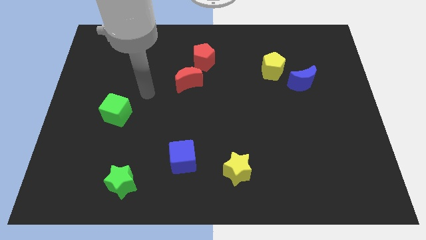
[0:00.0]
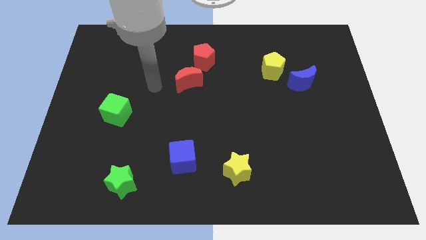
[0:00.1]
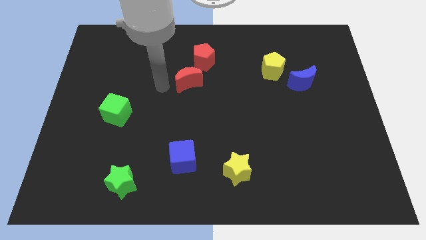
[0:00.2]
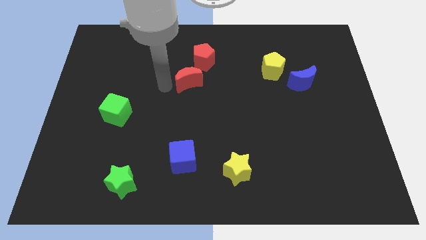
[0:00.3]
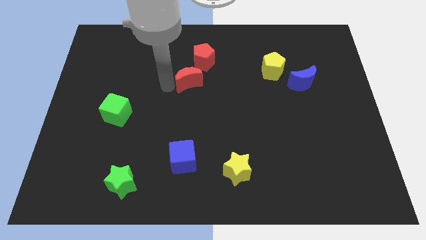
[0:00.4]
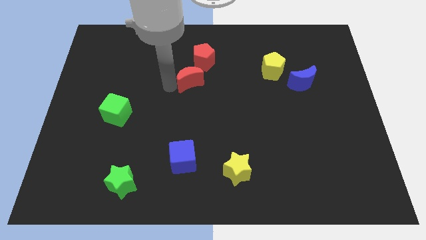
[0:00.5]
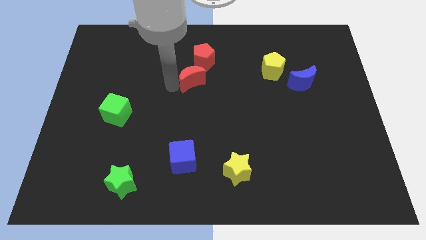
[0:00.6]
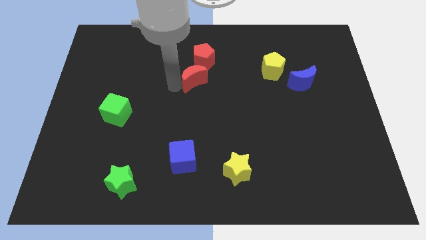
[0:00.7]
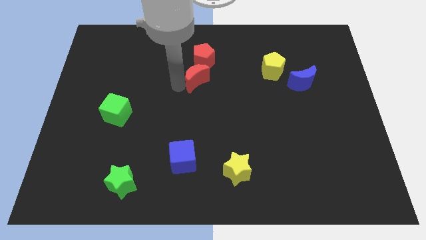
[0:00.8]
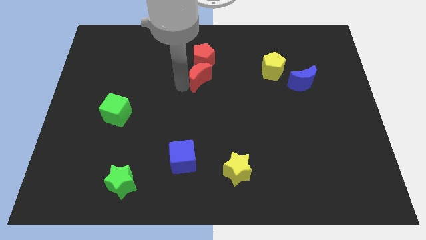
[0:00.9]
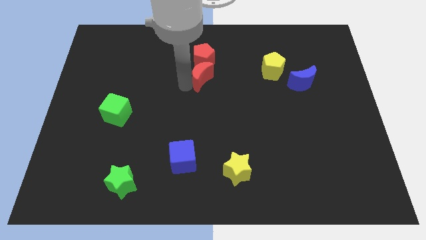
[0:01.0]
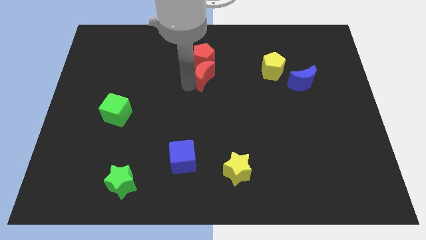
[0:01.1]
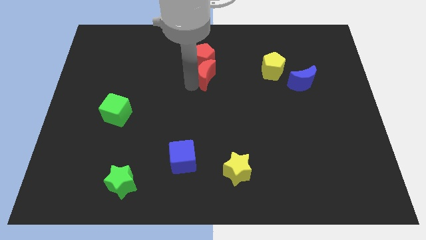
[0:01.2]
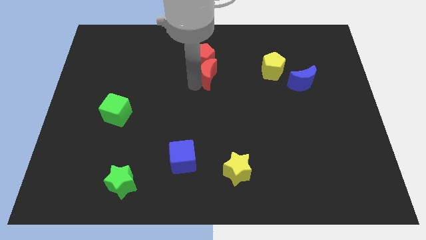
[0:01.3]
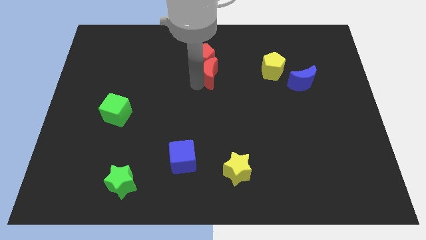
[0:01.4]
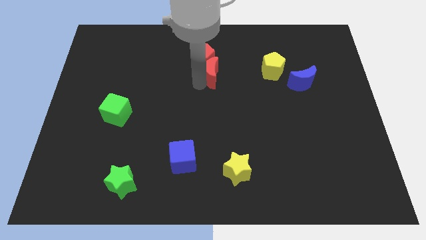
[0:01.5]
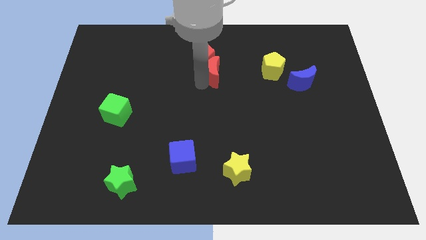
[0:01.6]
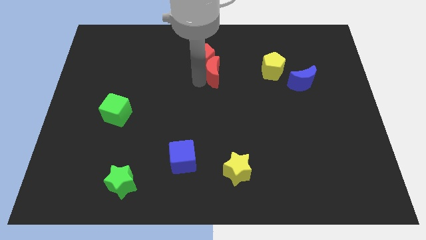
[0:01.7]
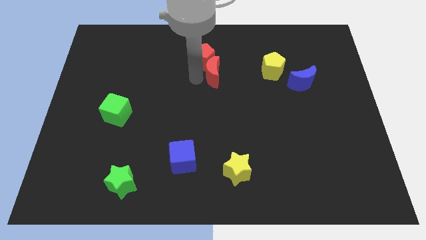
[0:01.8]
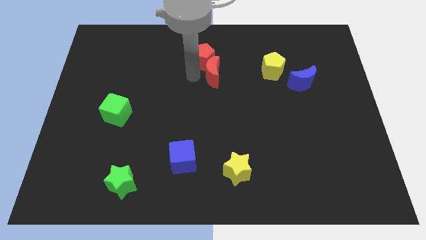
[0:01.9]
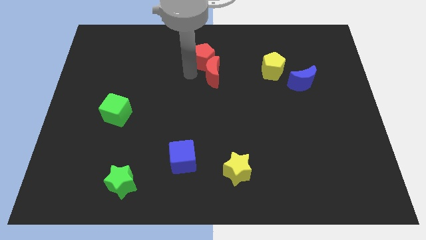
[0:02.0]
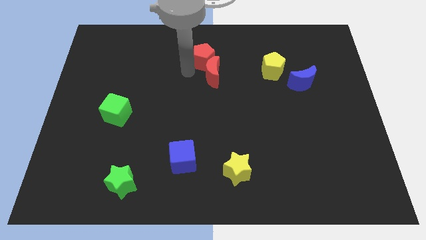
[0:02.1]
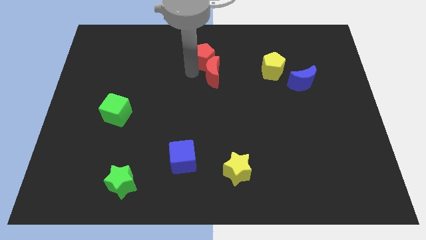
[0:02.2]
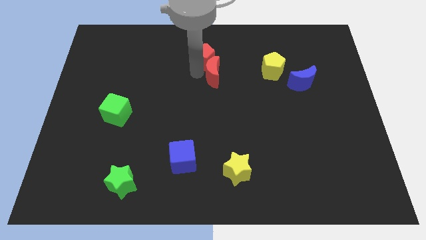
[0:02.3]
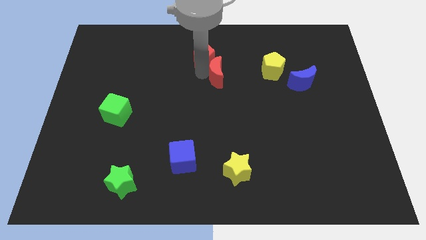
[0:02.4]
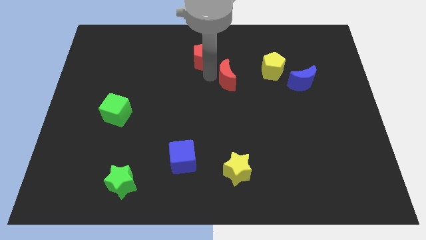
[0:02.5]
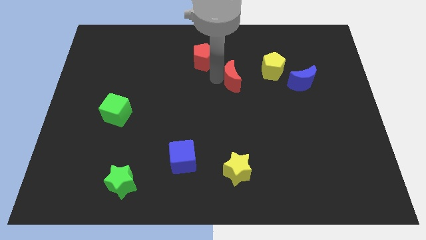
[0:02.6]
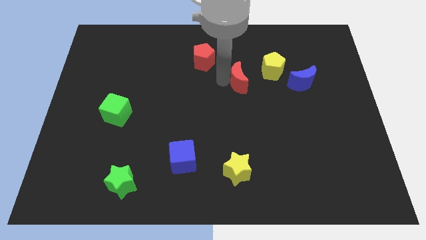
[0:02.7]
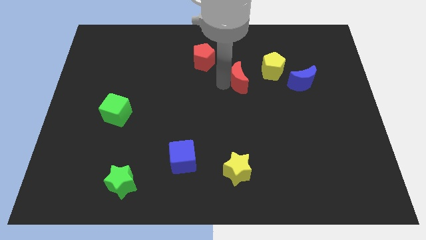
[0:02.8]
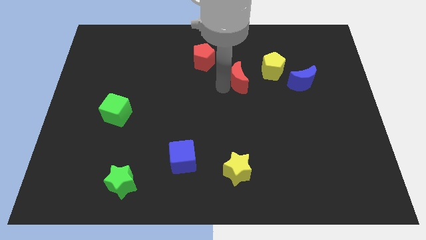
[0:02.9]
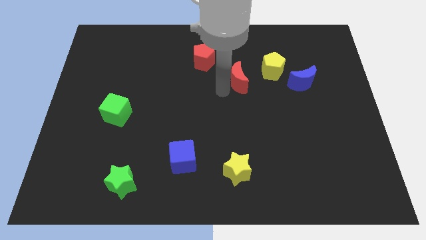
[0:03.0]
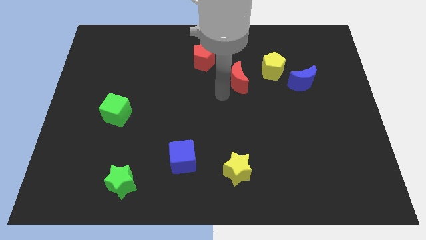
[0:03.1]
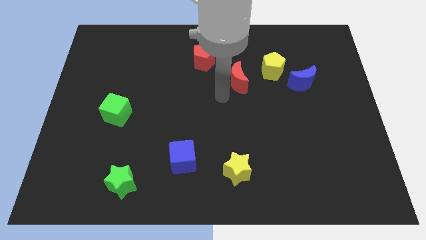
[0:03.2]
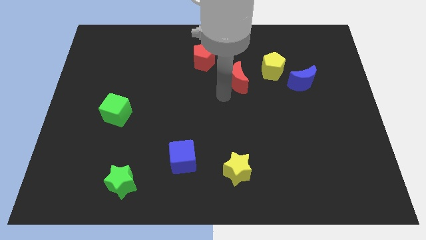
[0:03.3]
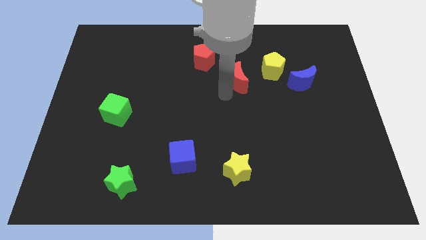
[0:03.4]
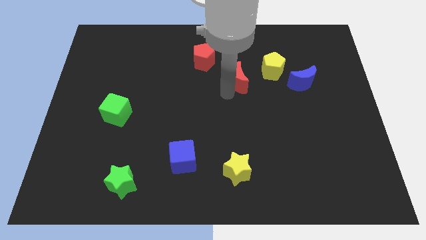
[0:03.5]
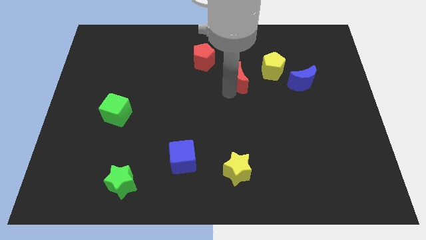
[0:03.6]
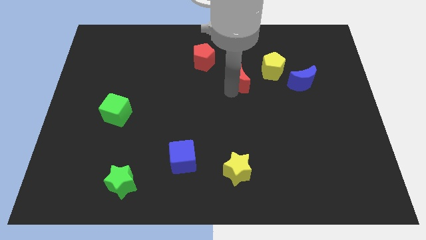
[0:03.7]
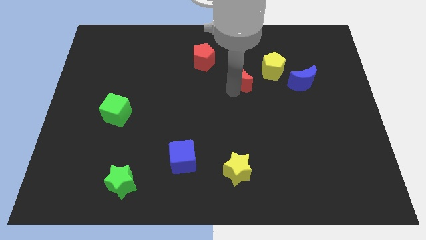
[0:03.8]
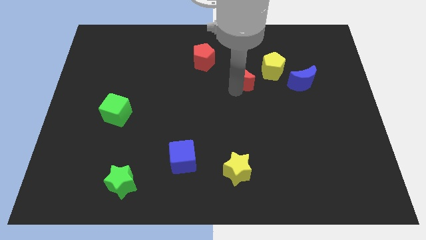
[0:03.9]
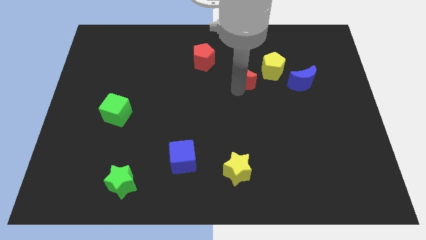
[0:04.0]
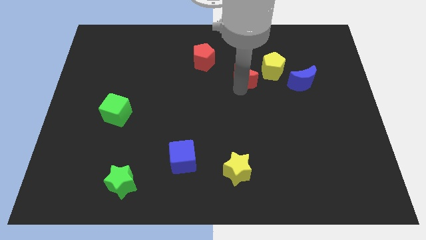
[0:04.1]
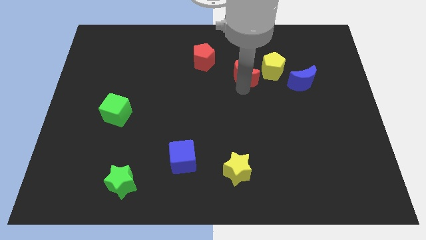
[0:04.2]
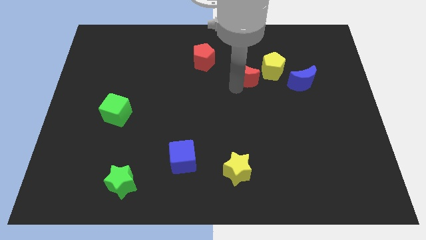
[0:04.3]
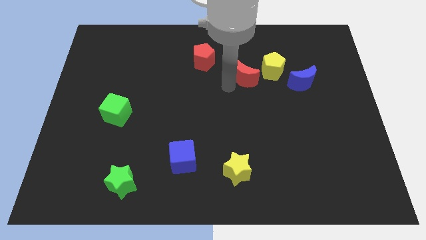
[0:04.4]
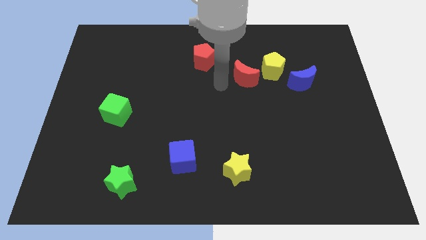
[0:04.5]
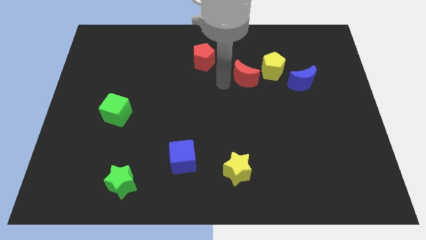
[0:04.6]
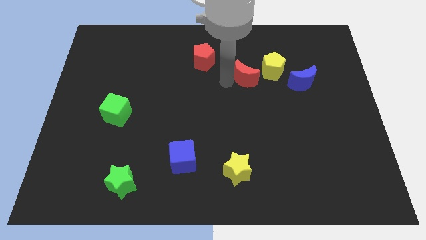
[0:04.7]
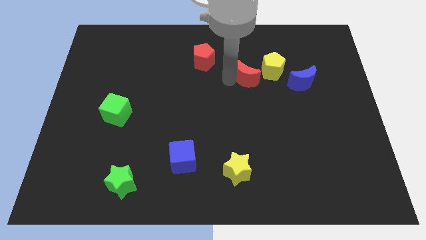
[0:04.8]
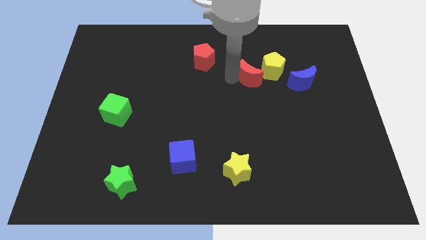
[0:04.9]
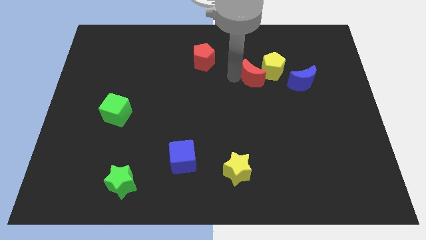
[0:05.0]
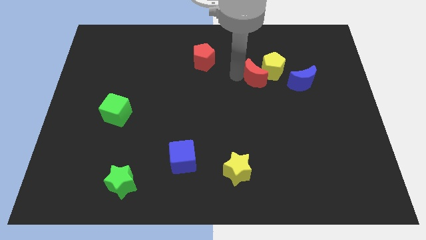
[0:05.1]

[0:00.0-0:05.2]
push the red moon to the yellow pentagon

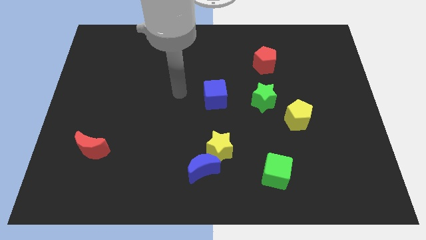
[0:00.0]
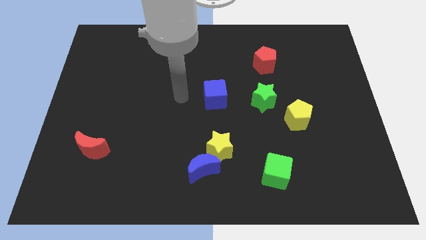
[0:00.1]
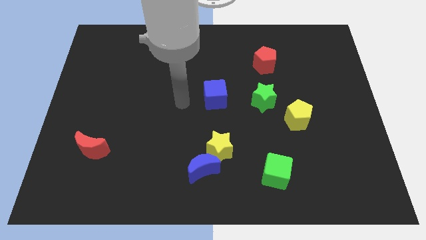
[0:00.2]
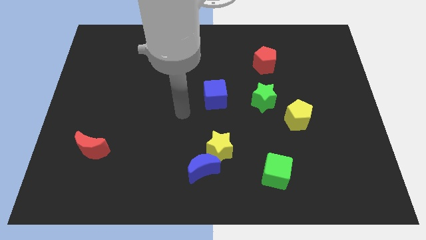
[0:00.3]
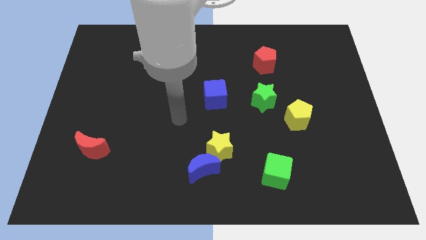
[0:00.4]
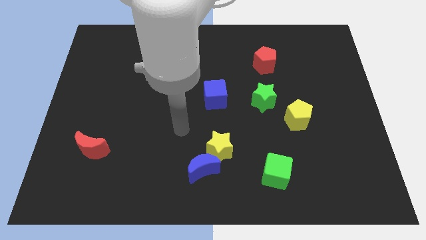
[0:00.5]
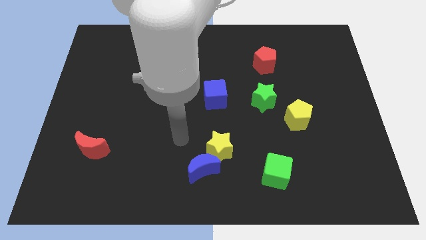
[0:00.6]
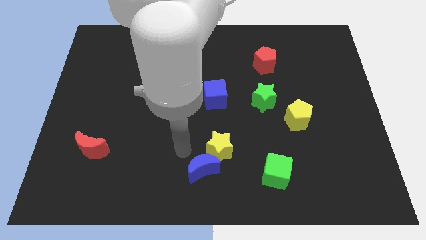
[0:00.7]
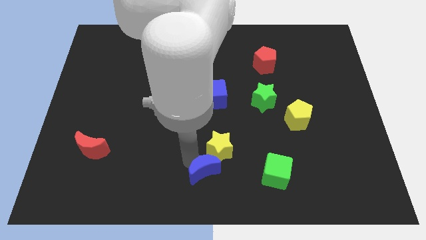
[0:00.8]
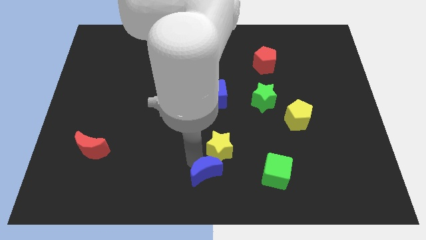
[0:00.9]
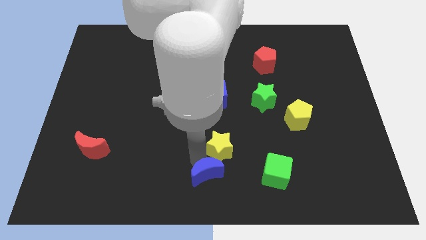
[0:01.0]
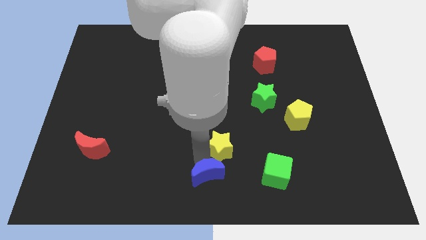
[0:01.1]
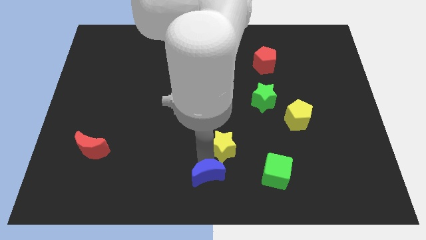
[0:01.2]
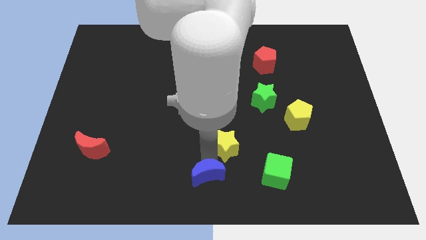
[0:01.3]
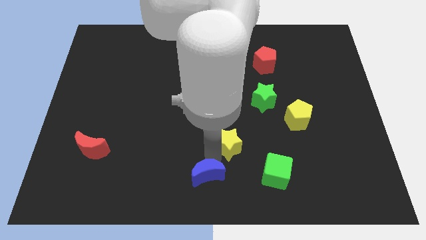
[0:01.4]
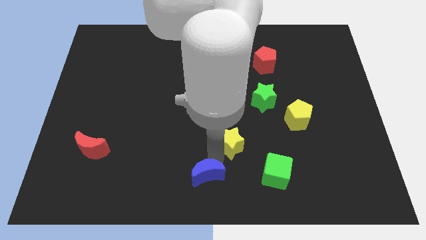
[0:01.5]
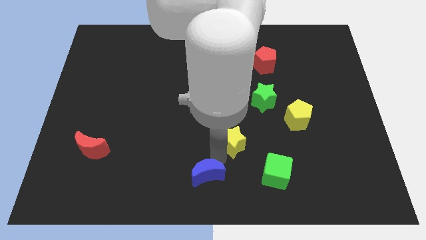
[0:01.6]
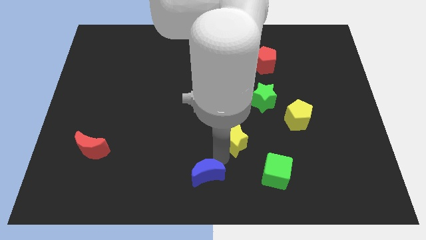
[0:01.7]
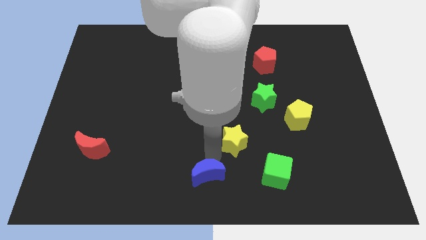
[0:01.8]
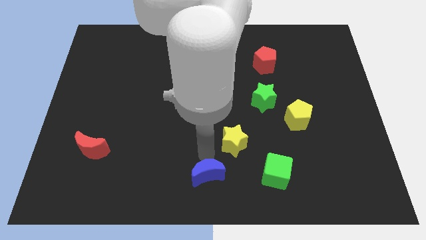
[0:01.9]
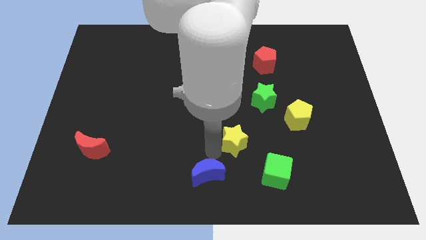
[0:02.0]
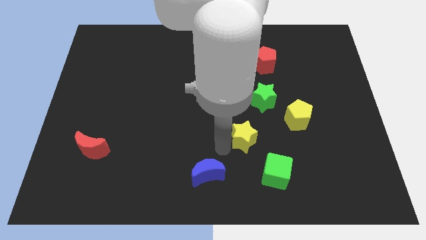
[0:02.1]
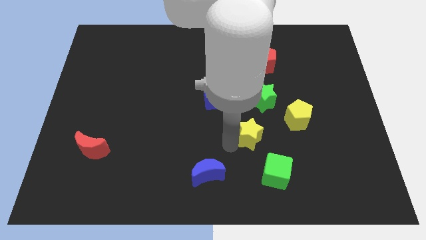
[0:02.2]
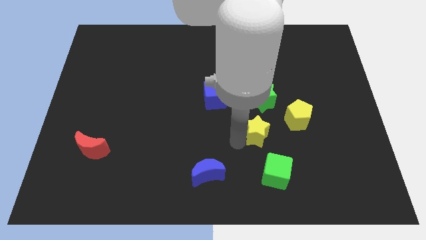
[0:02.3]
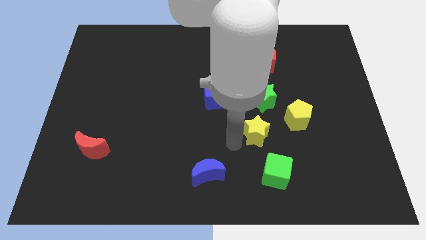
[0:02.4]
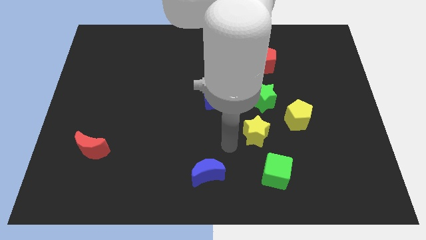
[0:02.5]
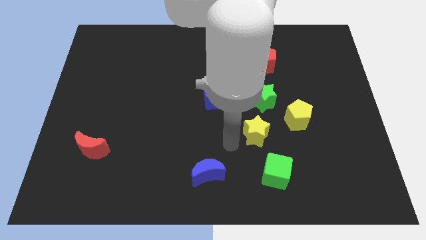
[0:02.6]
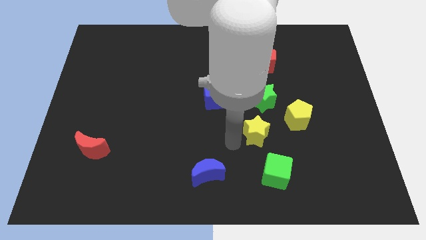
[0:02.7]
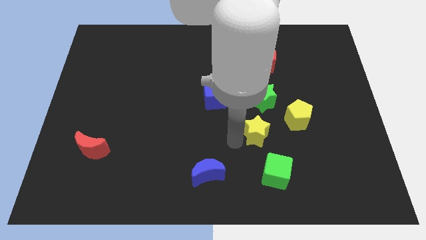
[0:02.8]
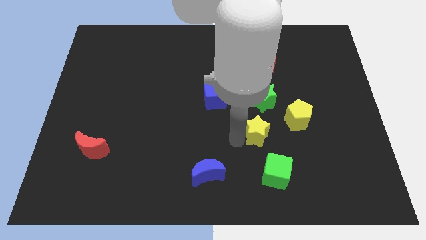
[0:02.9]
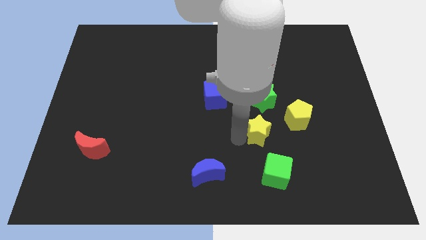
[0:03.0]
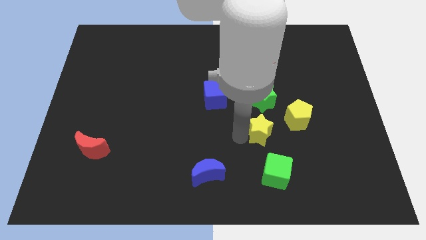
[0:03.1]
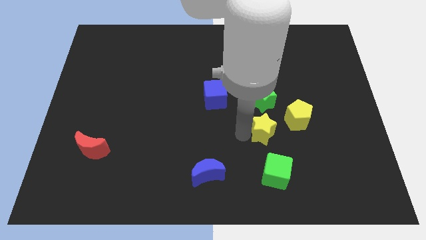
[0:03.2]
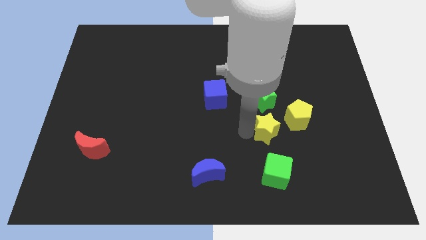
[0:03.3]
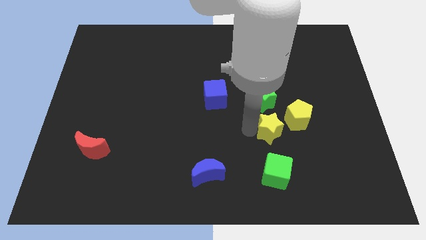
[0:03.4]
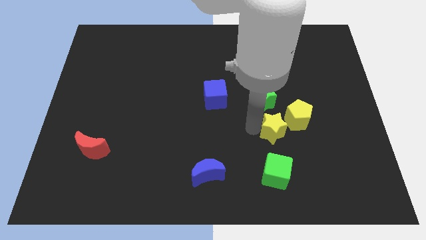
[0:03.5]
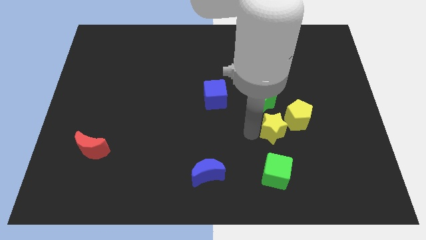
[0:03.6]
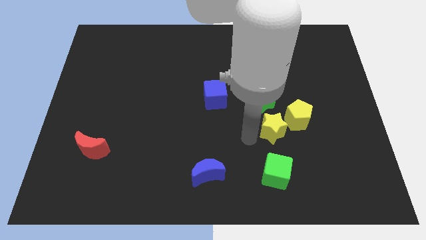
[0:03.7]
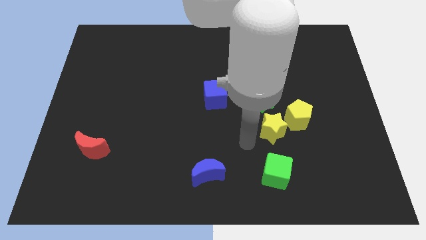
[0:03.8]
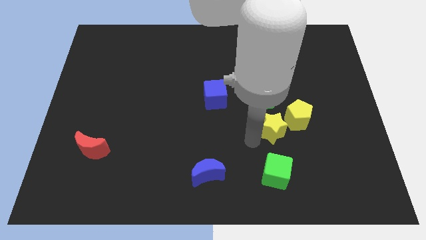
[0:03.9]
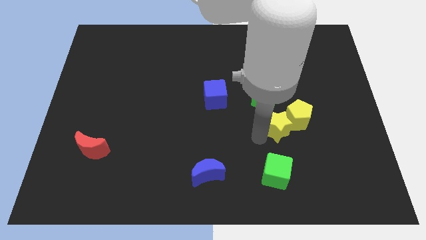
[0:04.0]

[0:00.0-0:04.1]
push the yellow star next to the yellow pentagon
